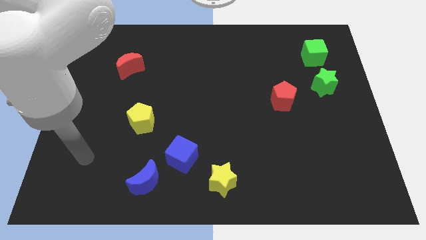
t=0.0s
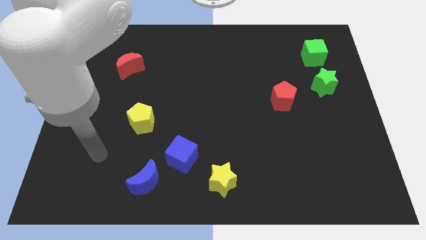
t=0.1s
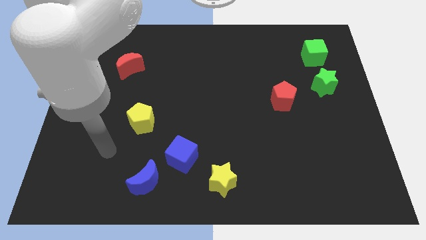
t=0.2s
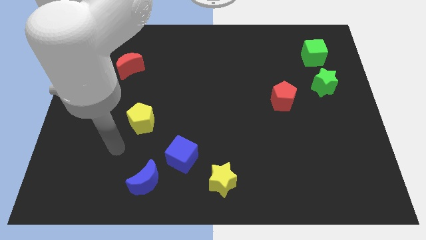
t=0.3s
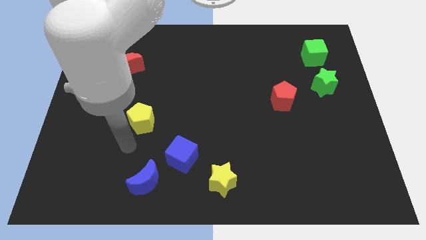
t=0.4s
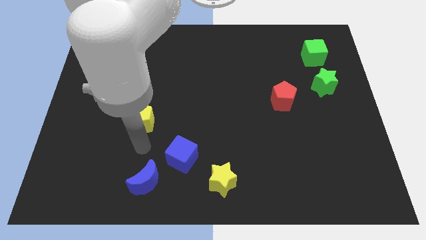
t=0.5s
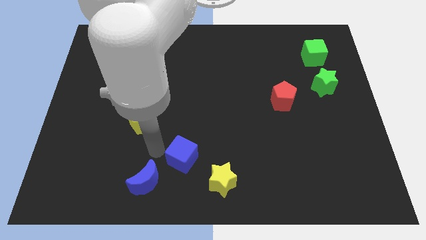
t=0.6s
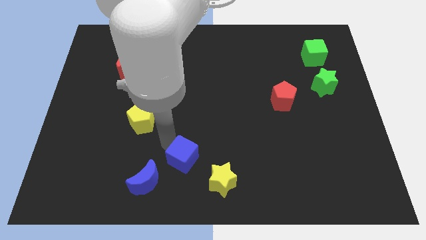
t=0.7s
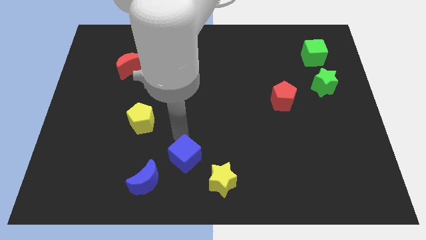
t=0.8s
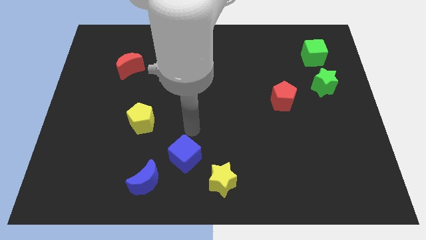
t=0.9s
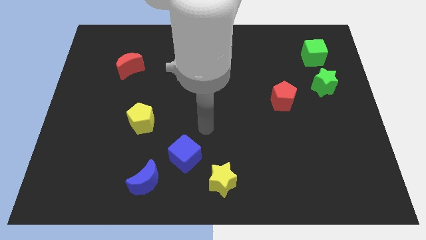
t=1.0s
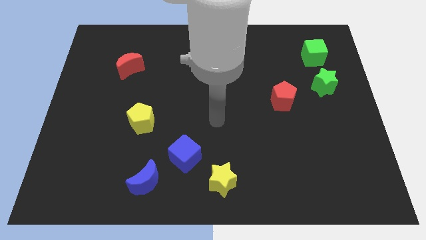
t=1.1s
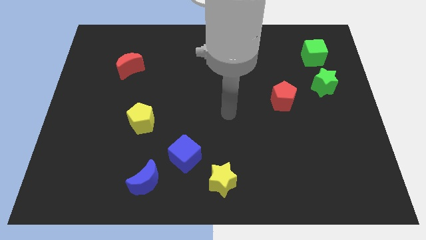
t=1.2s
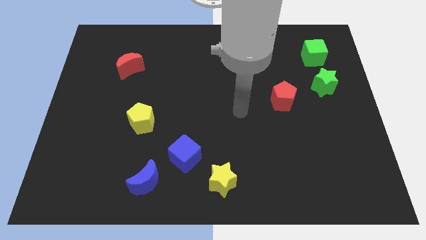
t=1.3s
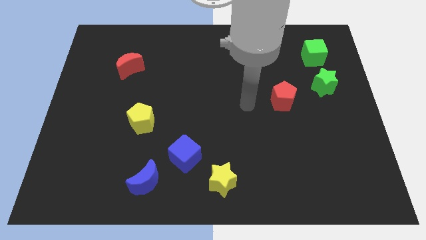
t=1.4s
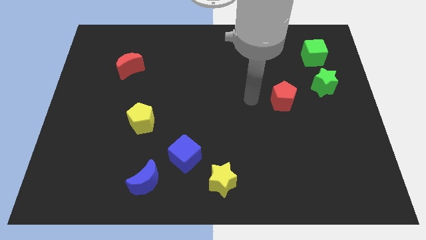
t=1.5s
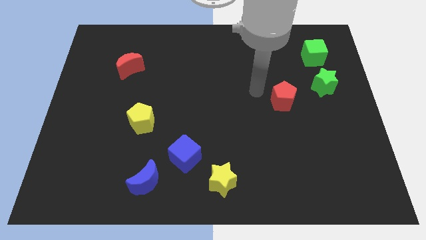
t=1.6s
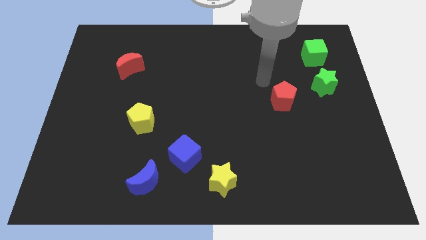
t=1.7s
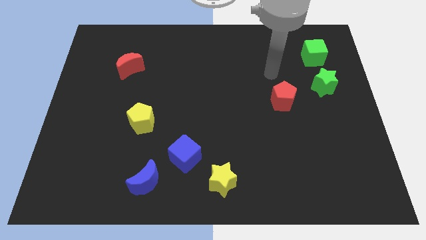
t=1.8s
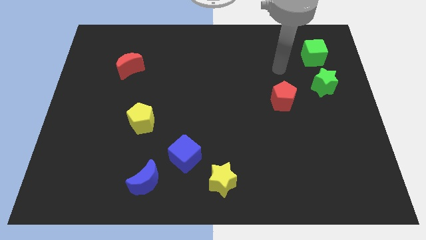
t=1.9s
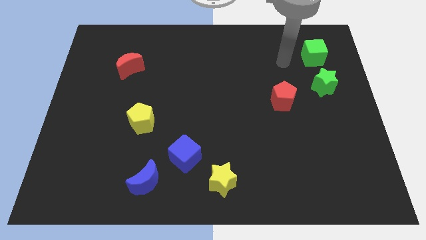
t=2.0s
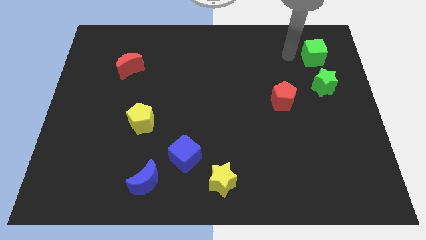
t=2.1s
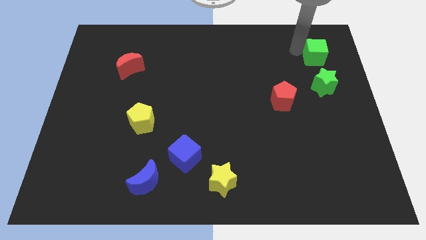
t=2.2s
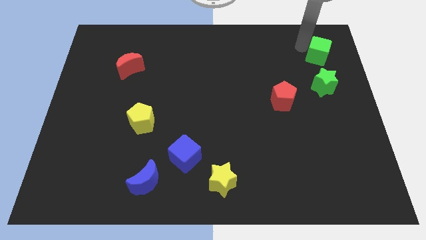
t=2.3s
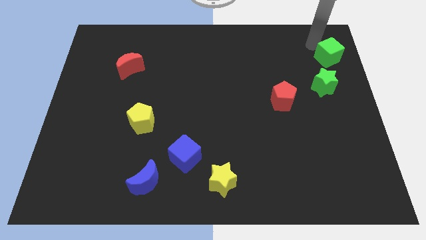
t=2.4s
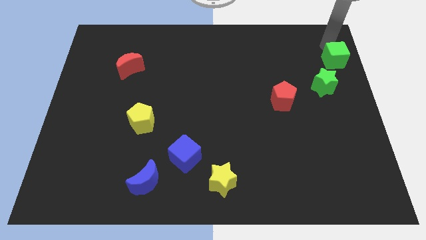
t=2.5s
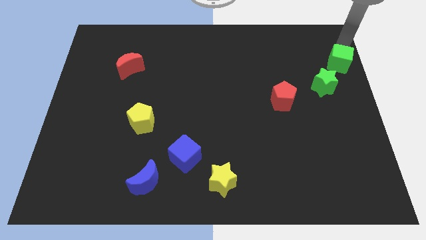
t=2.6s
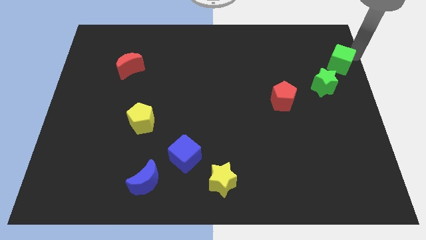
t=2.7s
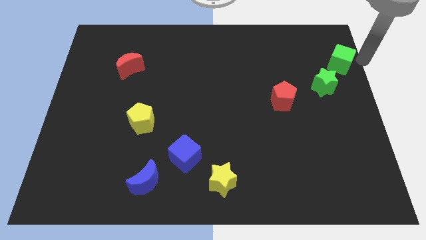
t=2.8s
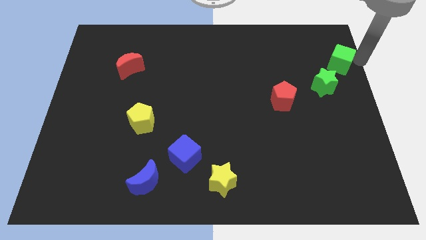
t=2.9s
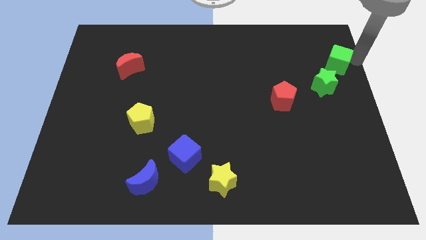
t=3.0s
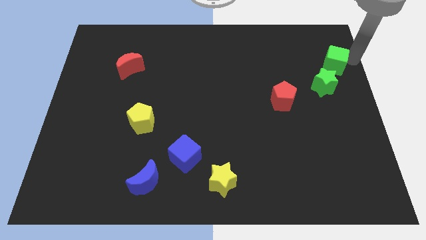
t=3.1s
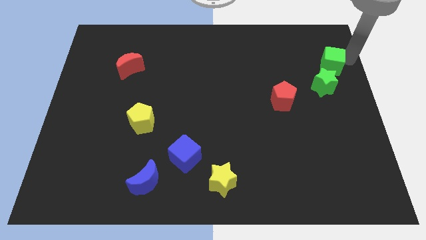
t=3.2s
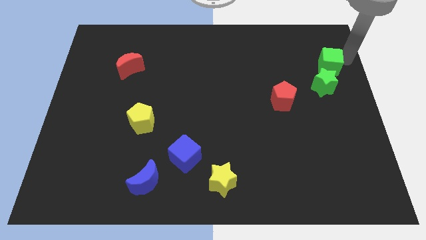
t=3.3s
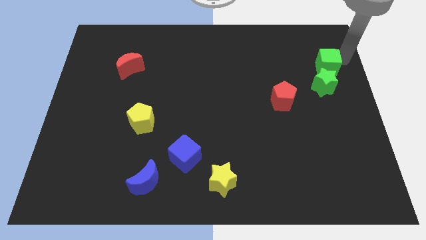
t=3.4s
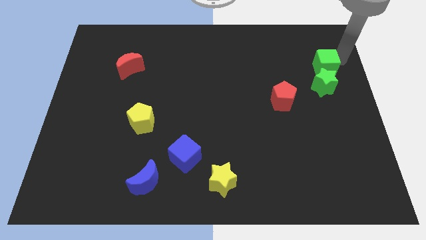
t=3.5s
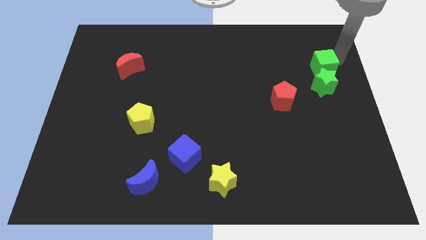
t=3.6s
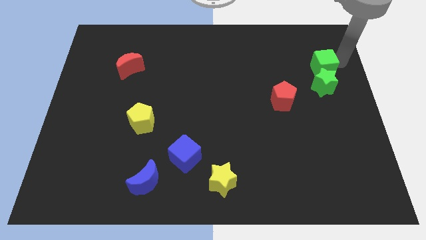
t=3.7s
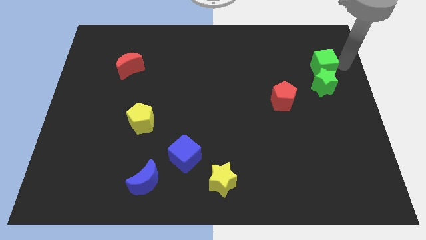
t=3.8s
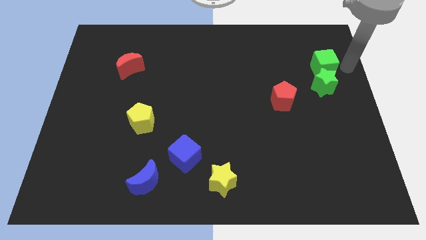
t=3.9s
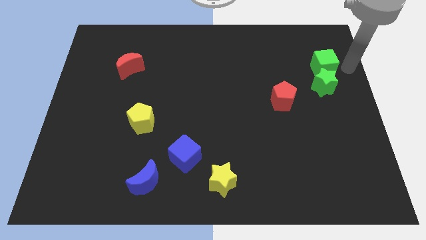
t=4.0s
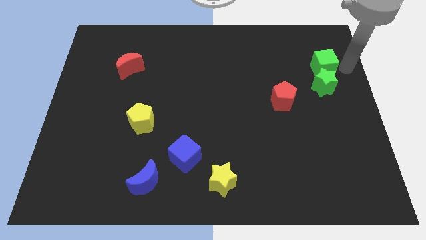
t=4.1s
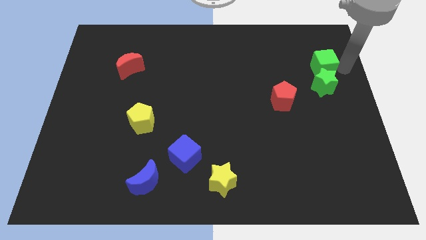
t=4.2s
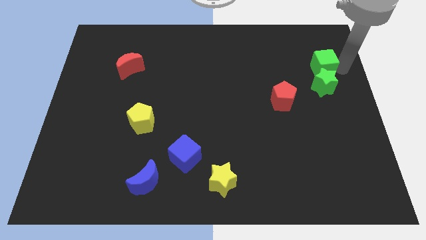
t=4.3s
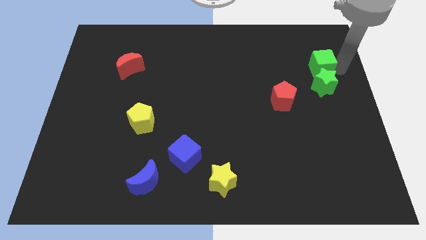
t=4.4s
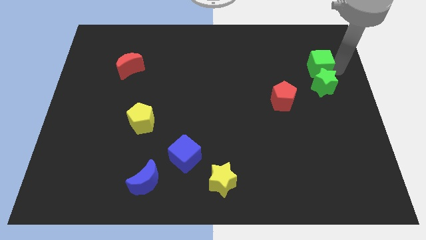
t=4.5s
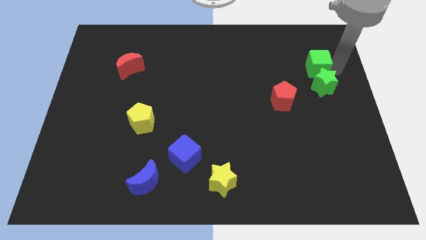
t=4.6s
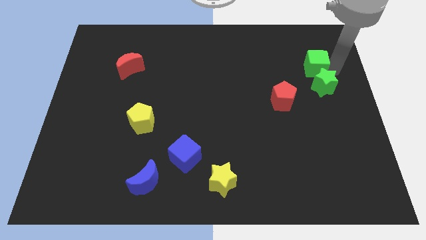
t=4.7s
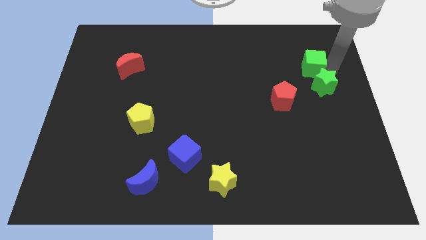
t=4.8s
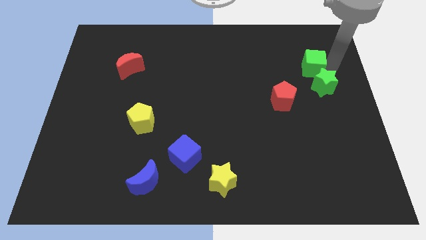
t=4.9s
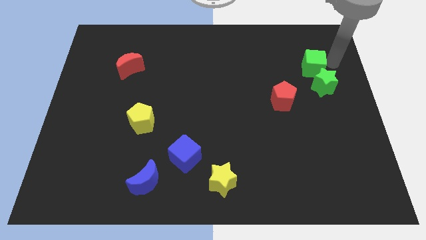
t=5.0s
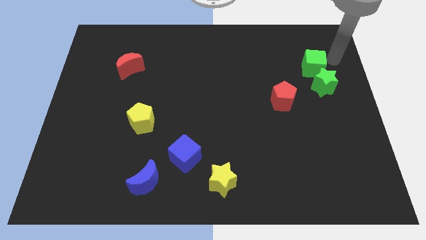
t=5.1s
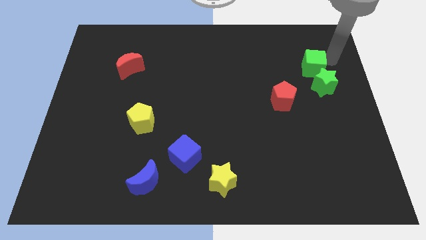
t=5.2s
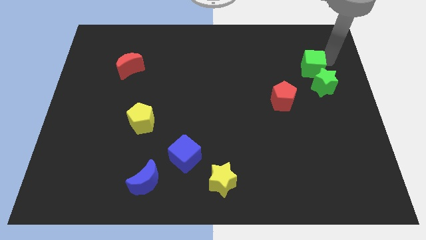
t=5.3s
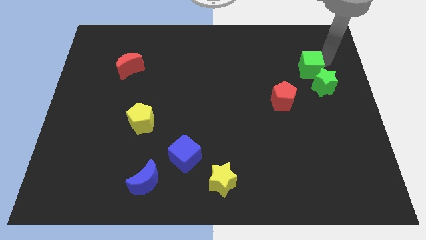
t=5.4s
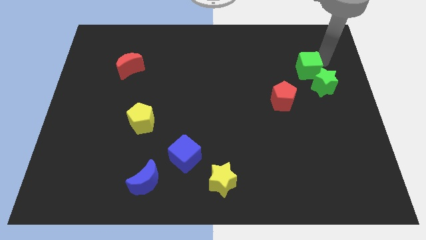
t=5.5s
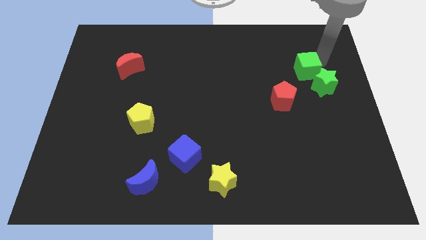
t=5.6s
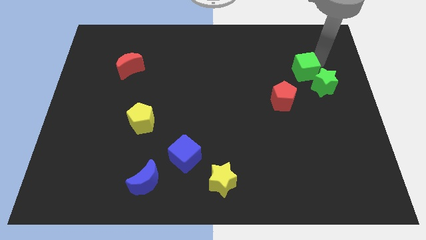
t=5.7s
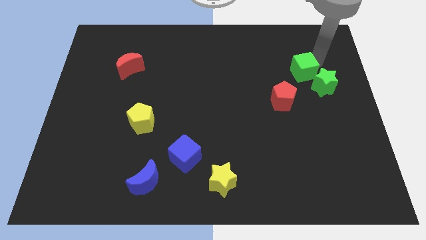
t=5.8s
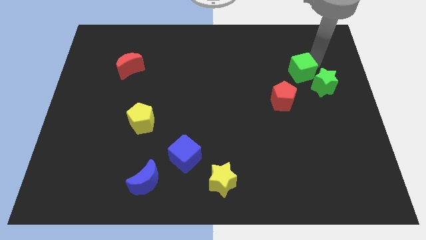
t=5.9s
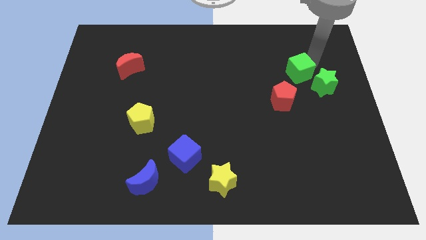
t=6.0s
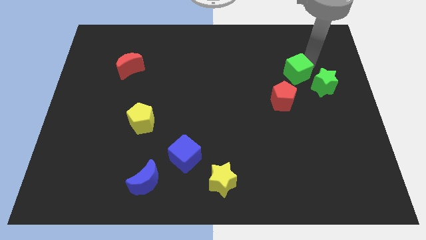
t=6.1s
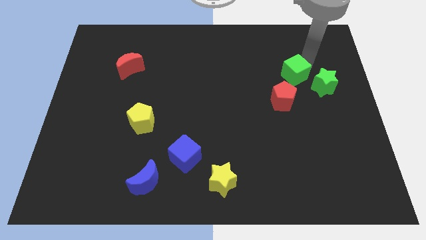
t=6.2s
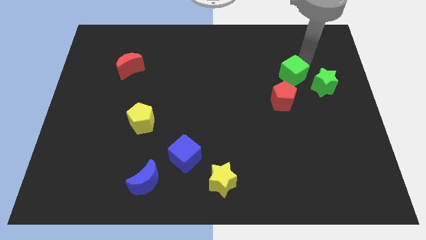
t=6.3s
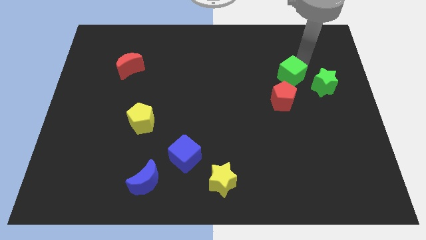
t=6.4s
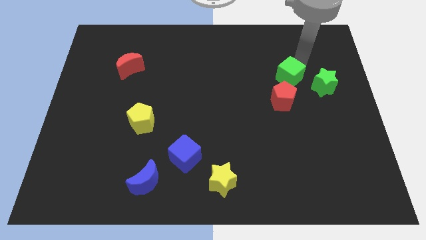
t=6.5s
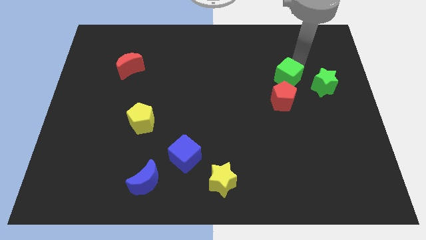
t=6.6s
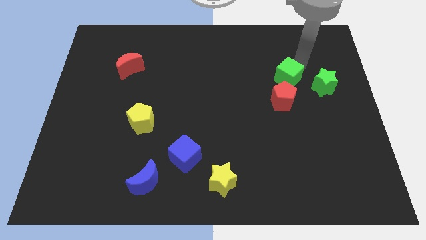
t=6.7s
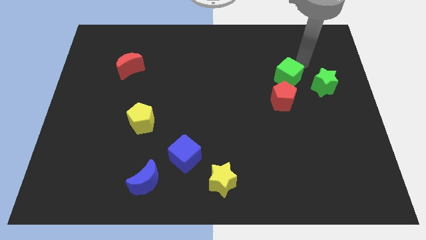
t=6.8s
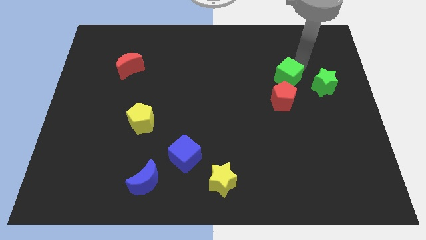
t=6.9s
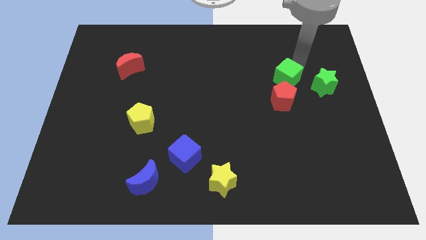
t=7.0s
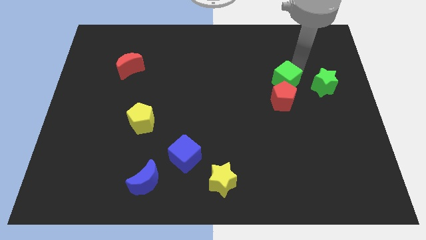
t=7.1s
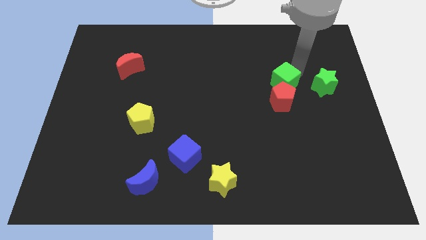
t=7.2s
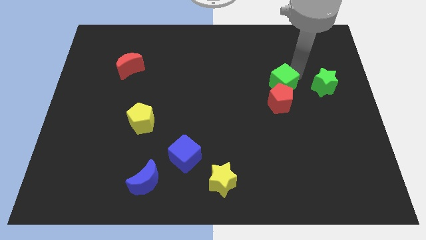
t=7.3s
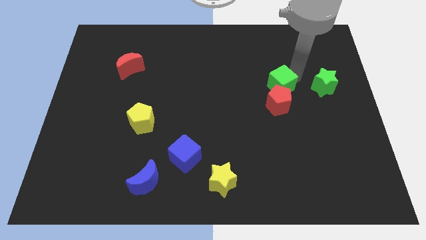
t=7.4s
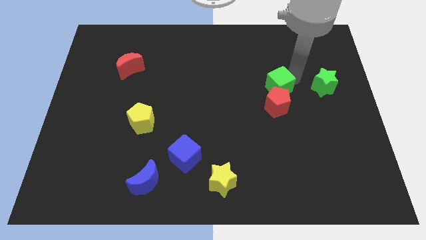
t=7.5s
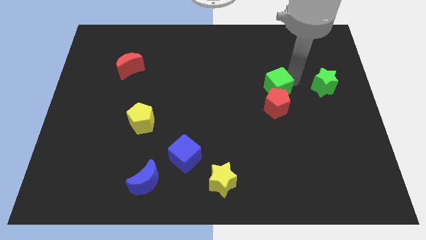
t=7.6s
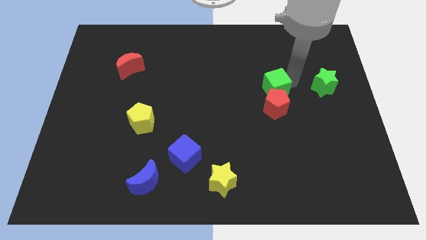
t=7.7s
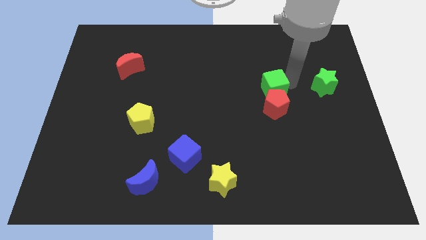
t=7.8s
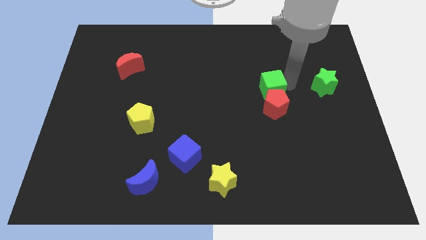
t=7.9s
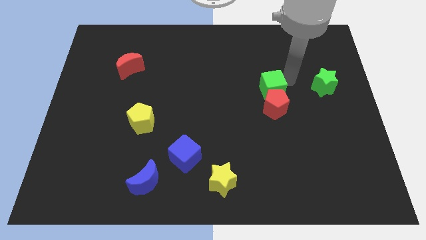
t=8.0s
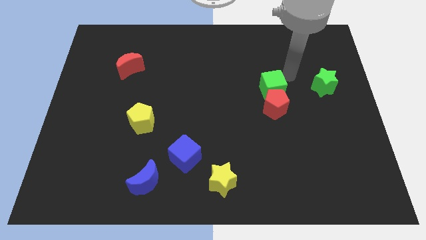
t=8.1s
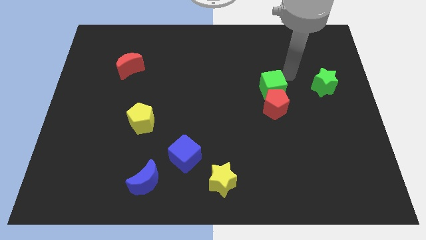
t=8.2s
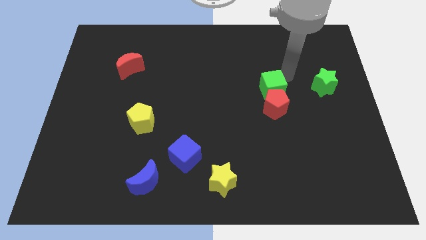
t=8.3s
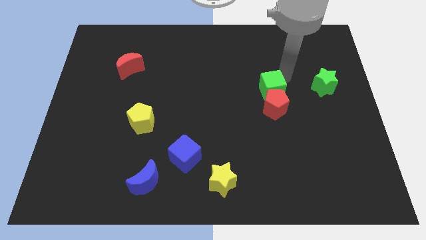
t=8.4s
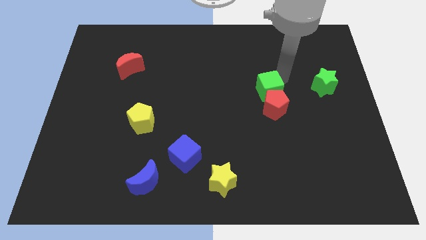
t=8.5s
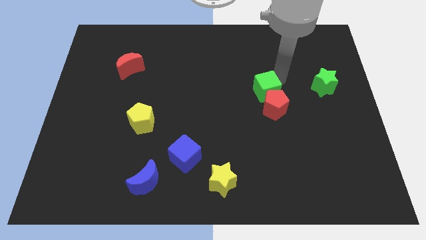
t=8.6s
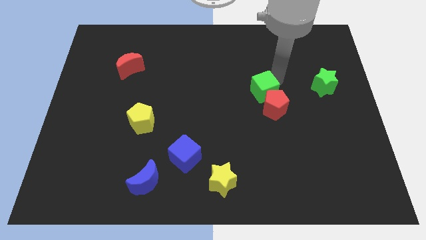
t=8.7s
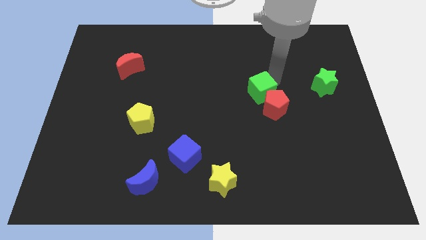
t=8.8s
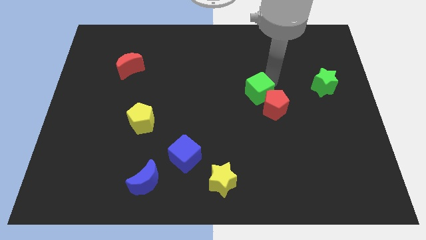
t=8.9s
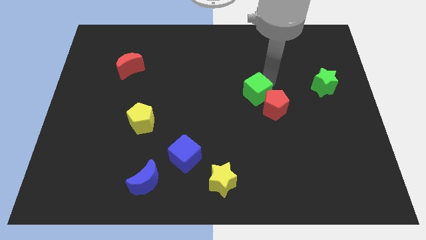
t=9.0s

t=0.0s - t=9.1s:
slide the green cube downwards and to the left
